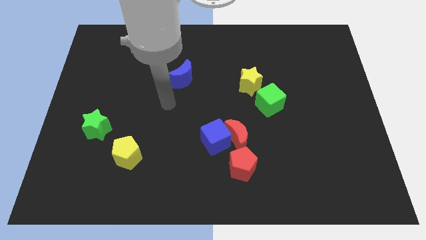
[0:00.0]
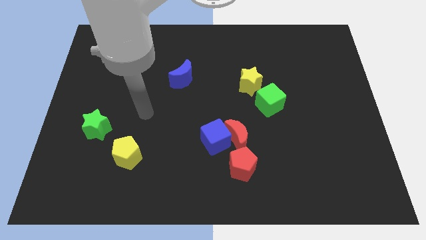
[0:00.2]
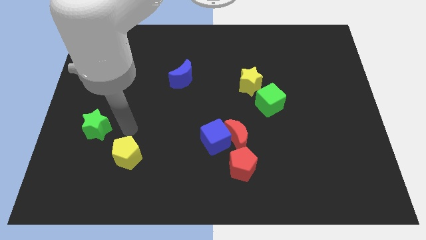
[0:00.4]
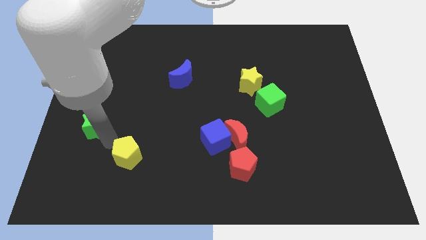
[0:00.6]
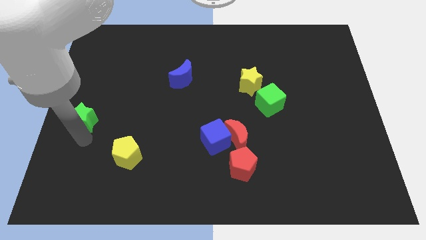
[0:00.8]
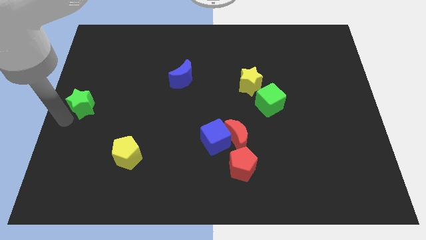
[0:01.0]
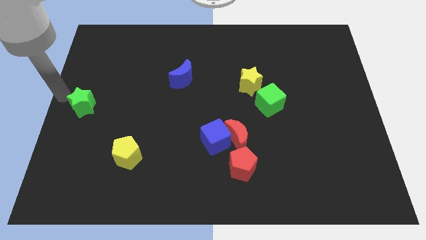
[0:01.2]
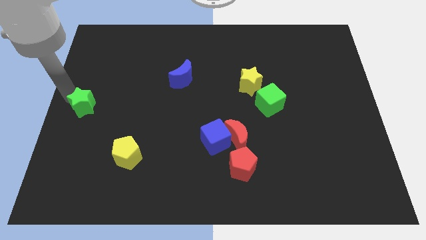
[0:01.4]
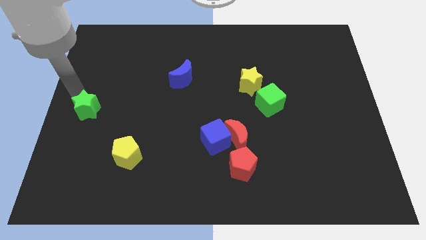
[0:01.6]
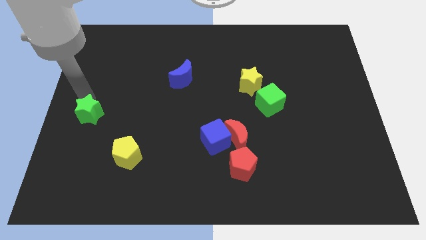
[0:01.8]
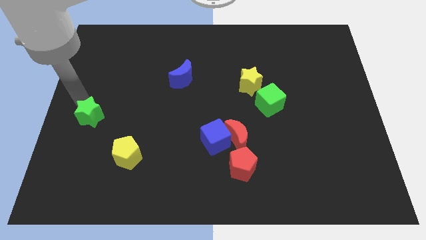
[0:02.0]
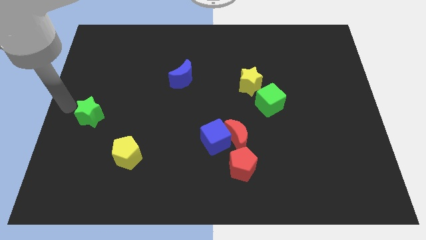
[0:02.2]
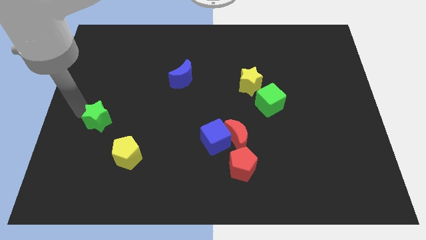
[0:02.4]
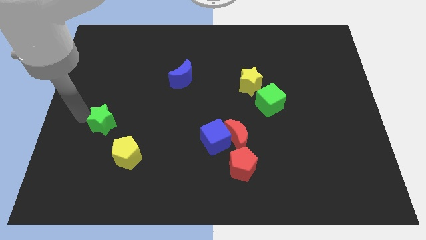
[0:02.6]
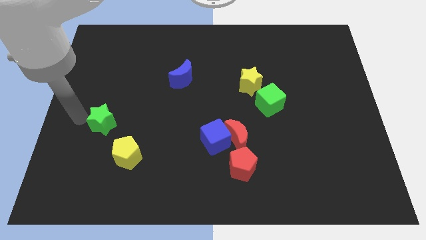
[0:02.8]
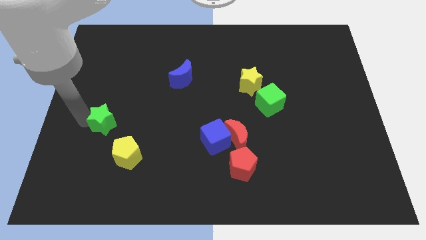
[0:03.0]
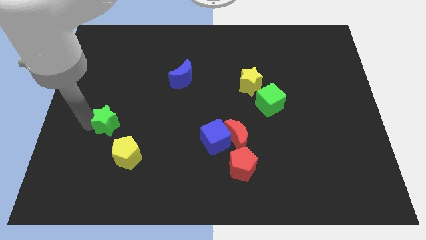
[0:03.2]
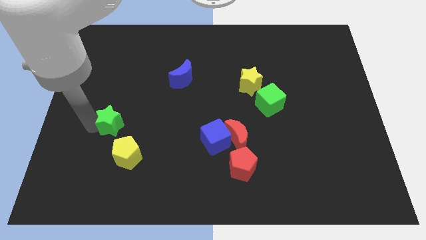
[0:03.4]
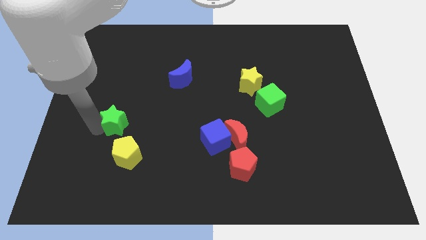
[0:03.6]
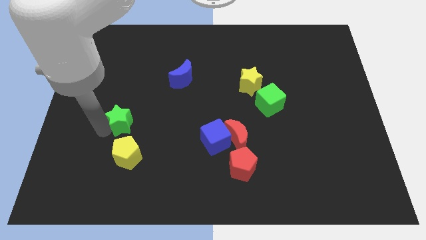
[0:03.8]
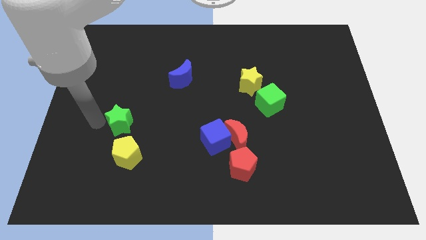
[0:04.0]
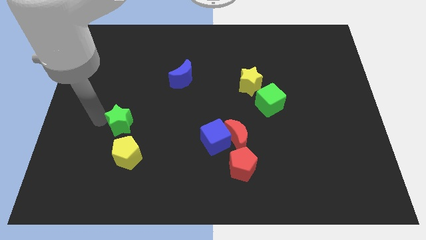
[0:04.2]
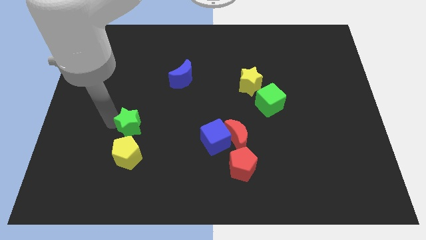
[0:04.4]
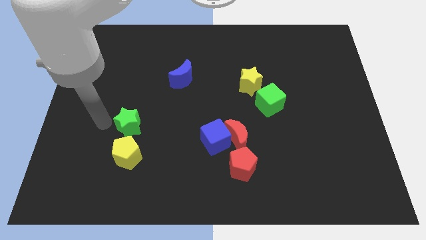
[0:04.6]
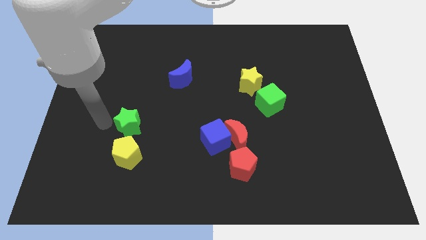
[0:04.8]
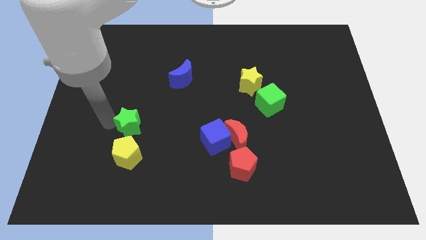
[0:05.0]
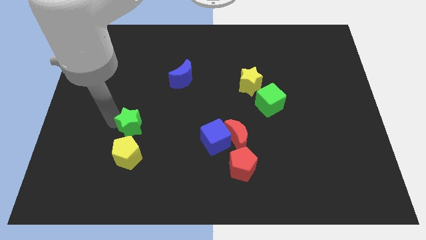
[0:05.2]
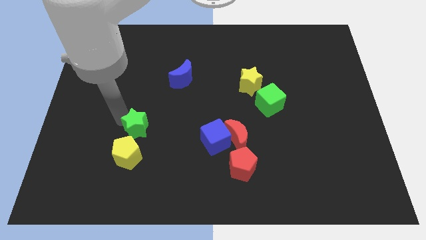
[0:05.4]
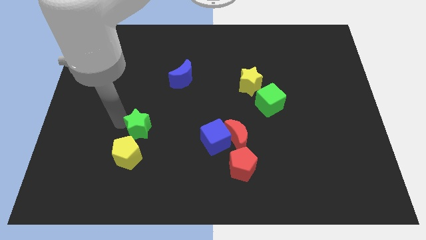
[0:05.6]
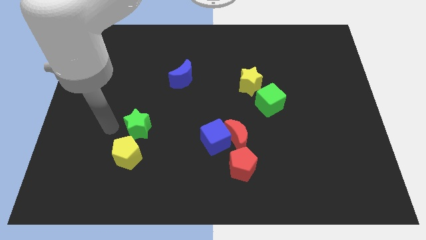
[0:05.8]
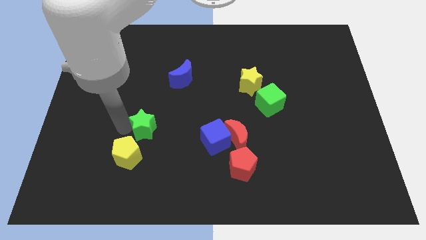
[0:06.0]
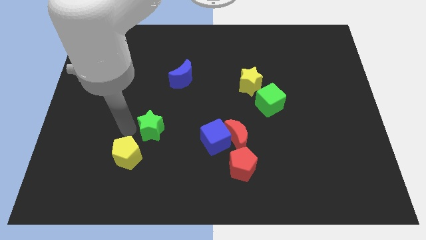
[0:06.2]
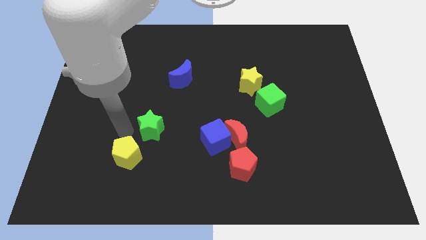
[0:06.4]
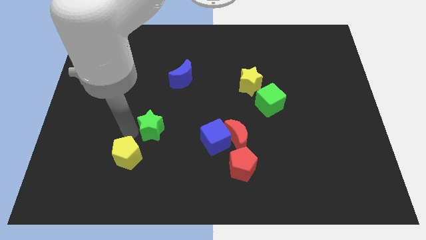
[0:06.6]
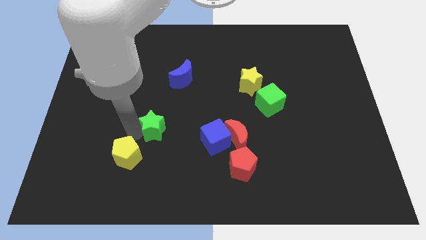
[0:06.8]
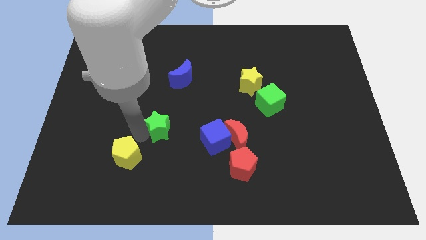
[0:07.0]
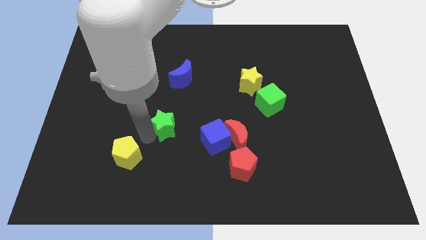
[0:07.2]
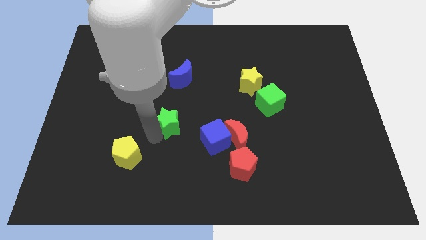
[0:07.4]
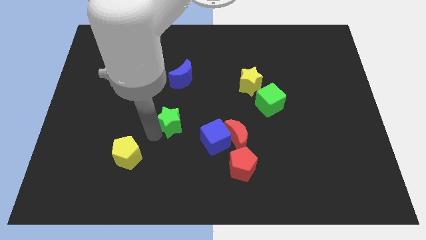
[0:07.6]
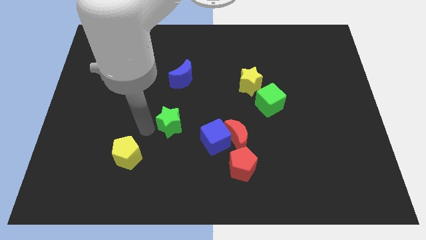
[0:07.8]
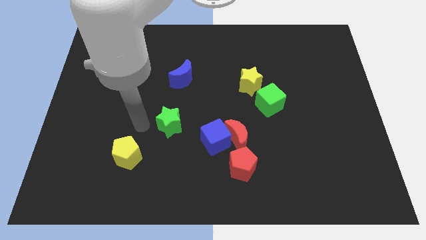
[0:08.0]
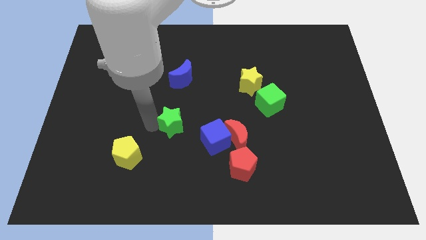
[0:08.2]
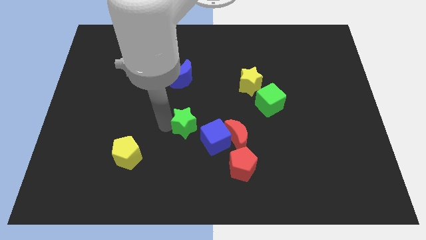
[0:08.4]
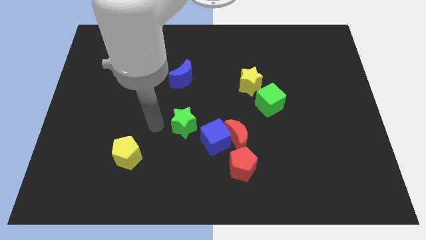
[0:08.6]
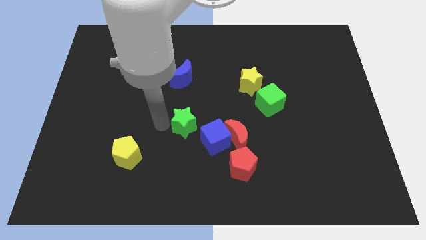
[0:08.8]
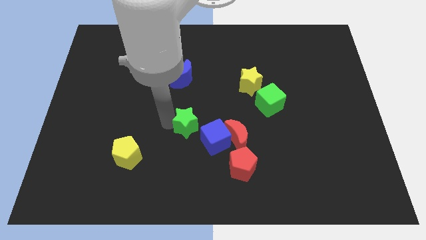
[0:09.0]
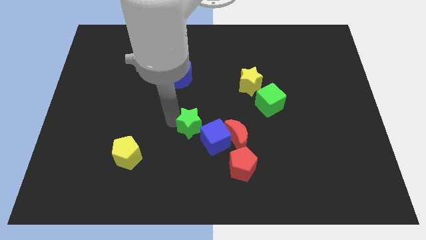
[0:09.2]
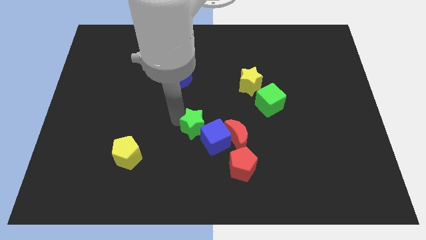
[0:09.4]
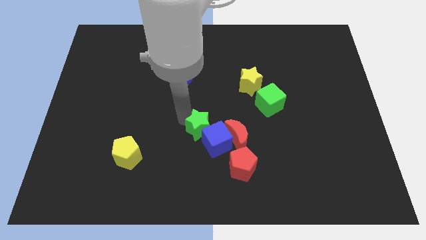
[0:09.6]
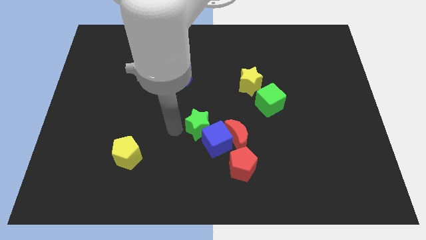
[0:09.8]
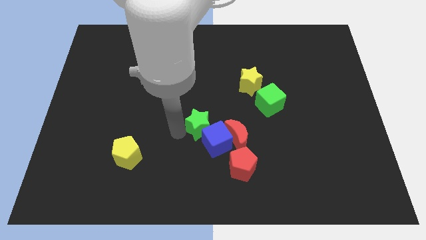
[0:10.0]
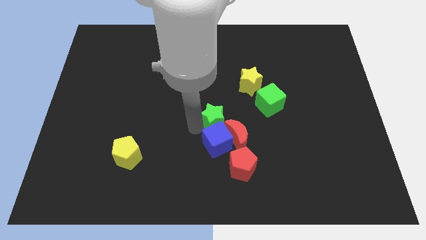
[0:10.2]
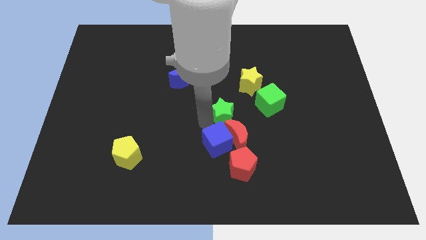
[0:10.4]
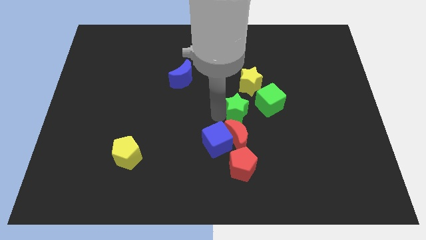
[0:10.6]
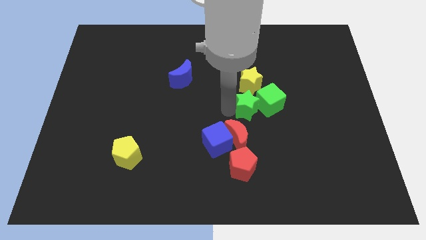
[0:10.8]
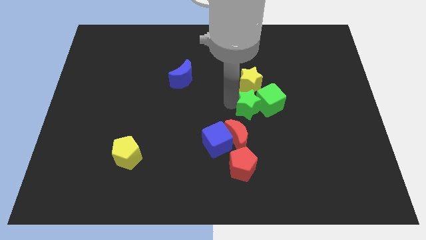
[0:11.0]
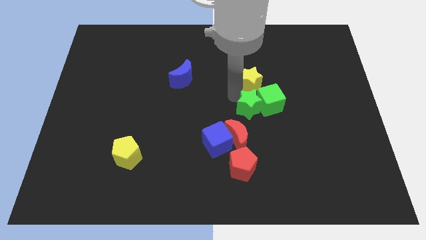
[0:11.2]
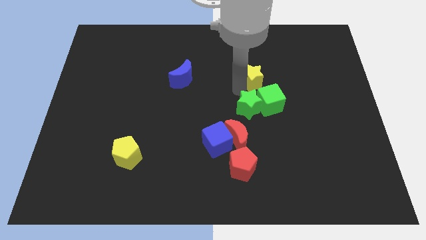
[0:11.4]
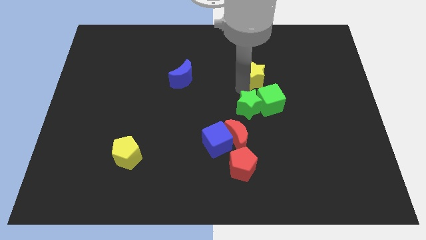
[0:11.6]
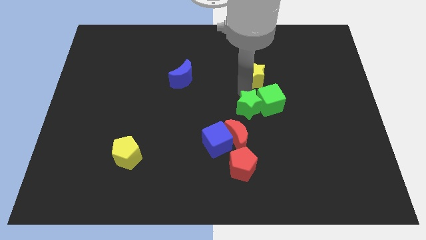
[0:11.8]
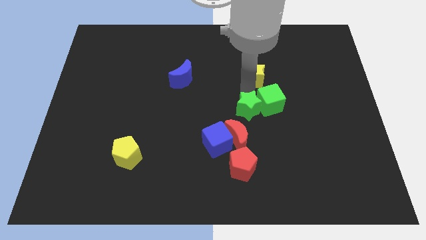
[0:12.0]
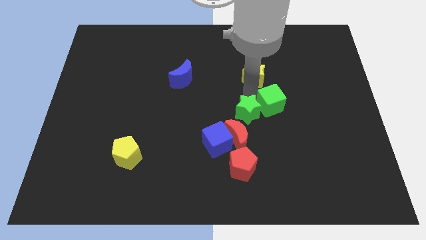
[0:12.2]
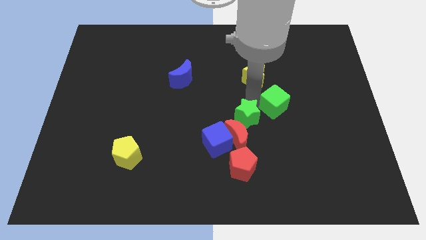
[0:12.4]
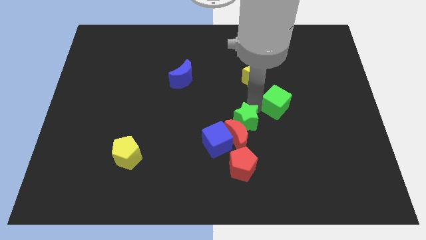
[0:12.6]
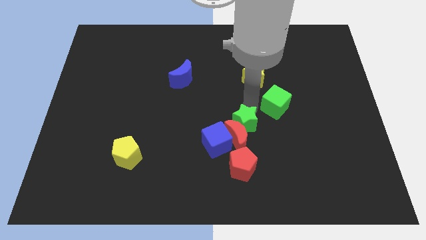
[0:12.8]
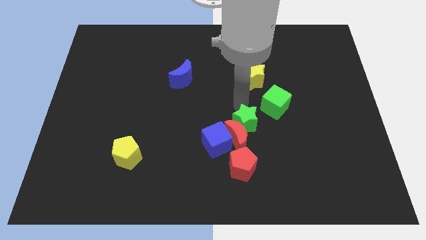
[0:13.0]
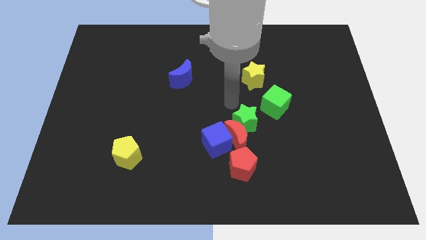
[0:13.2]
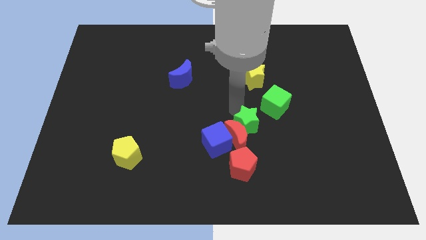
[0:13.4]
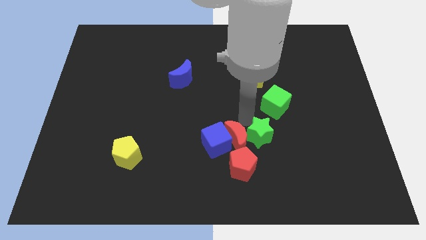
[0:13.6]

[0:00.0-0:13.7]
put the green star to the bottom right side of the red moon

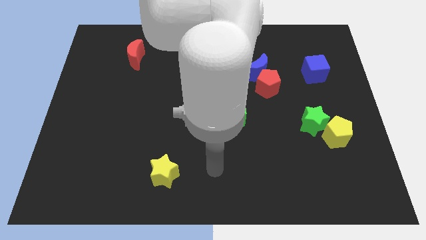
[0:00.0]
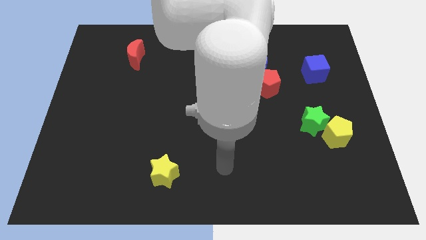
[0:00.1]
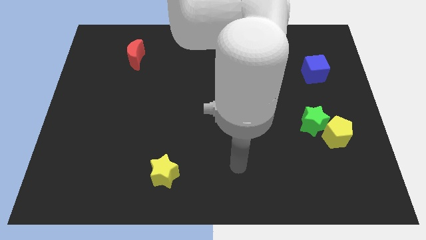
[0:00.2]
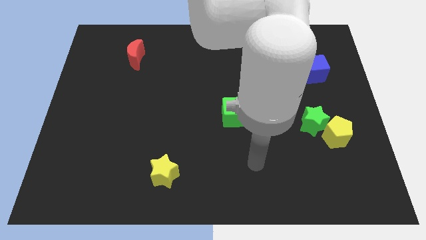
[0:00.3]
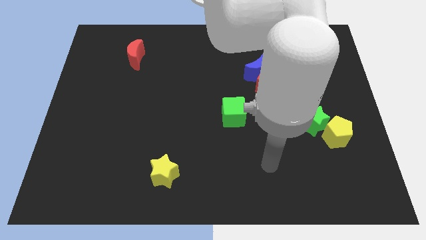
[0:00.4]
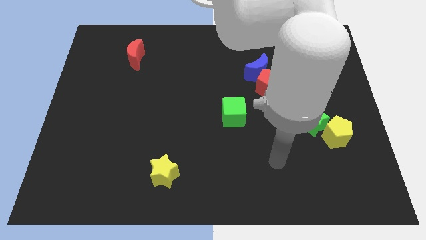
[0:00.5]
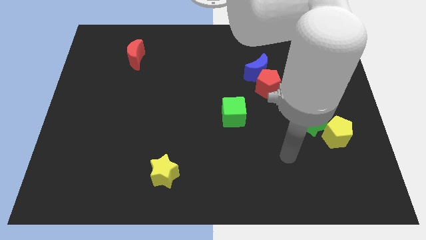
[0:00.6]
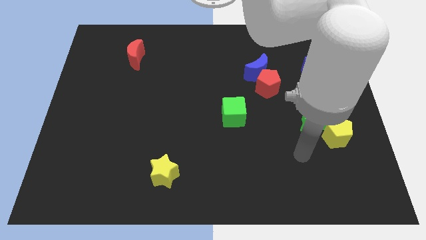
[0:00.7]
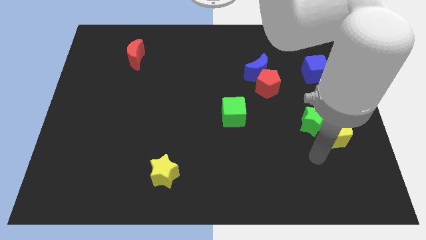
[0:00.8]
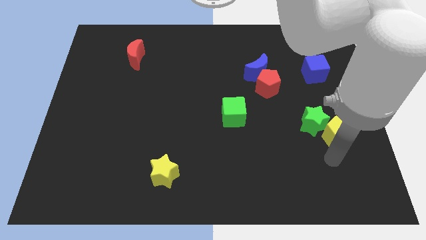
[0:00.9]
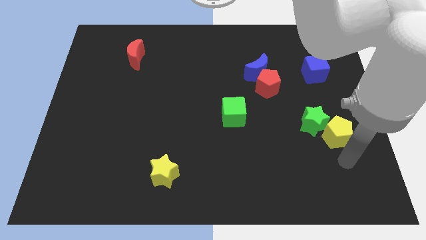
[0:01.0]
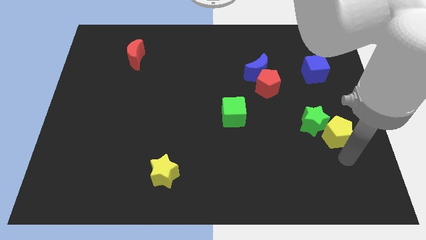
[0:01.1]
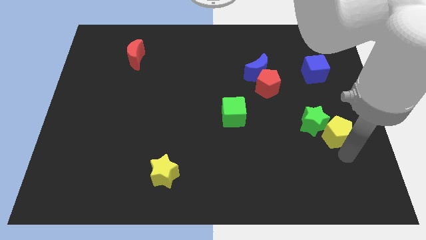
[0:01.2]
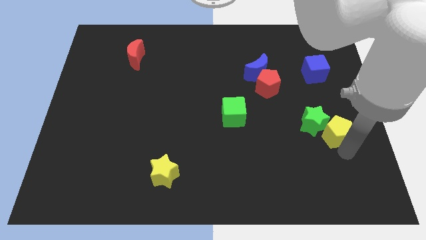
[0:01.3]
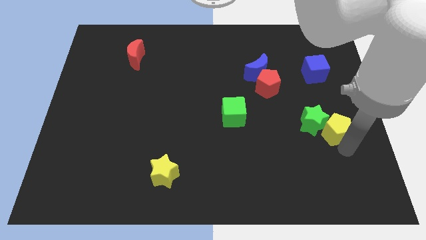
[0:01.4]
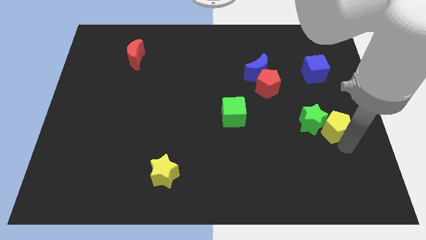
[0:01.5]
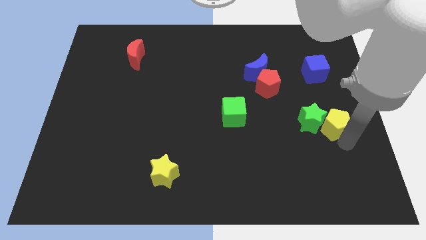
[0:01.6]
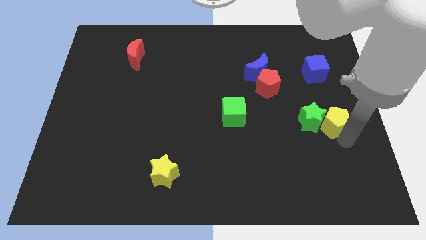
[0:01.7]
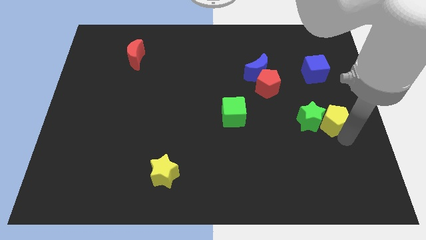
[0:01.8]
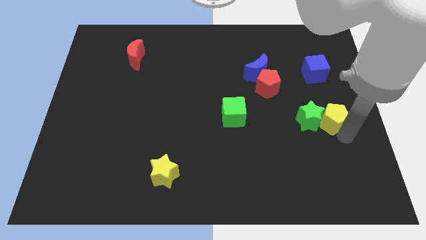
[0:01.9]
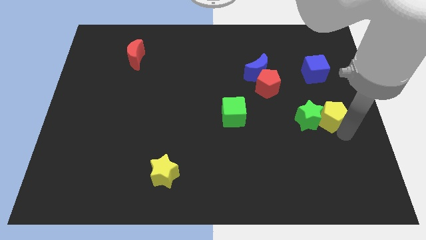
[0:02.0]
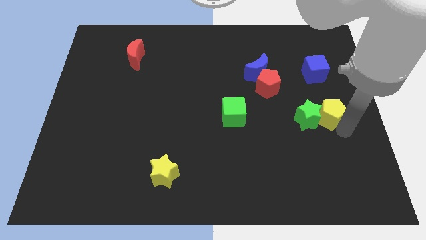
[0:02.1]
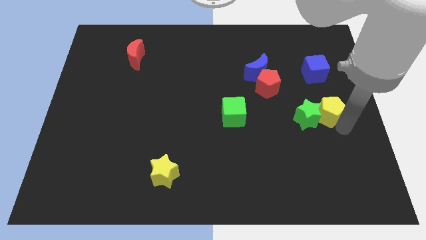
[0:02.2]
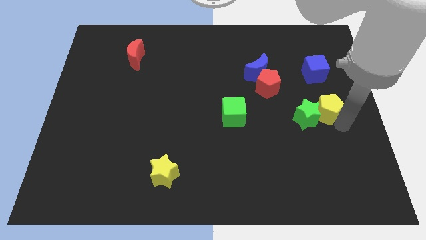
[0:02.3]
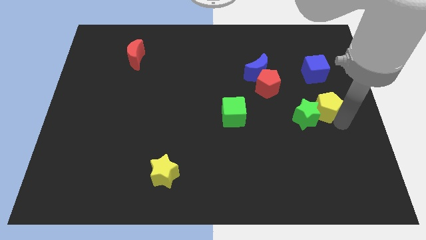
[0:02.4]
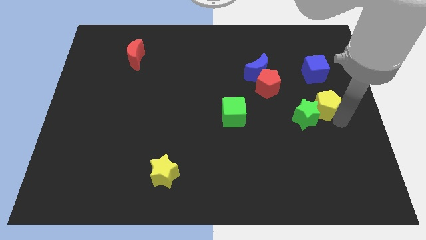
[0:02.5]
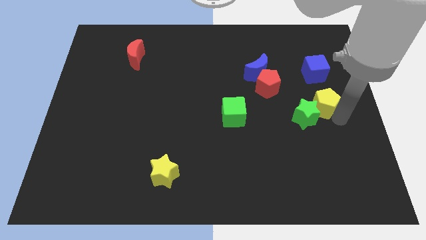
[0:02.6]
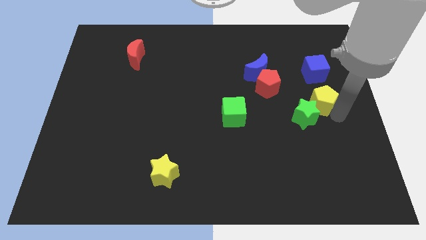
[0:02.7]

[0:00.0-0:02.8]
push the yellow pentagon to the top side of the green star
